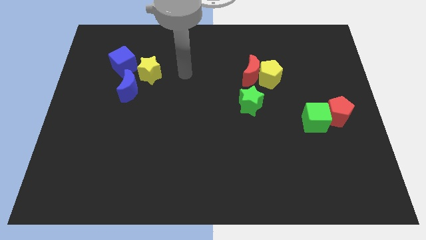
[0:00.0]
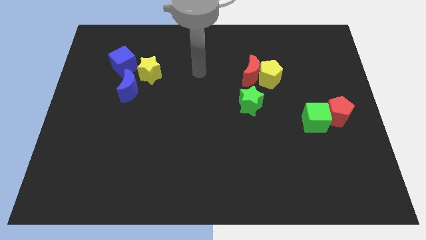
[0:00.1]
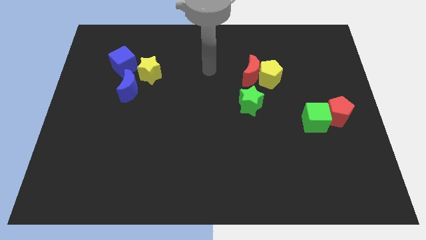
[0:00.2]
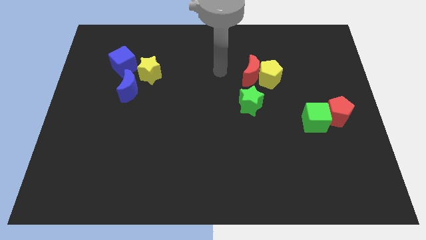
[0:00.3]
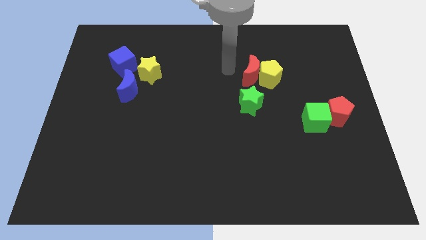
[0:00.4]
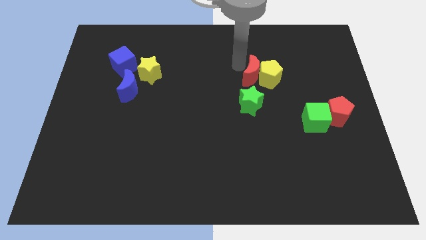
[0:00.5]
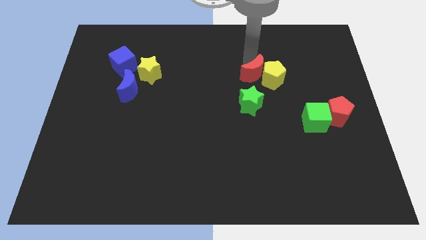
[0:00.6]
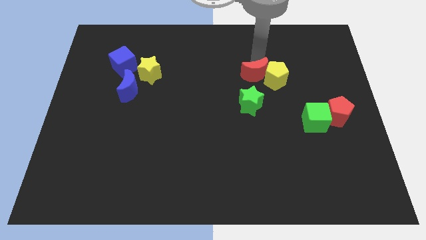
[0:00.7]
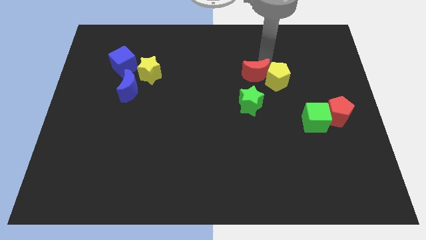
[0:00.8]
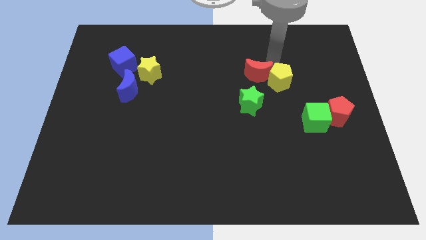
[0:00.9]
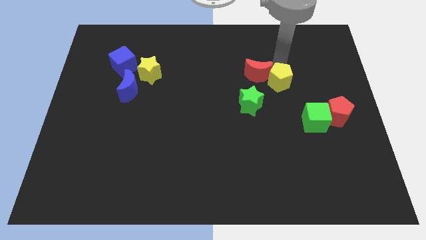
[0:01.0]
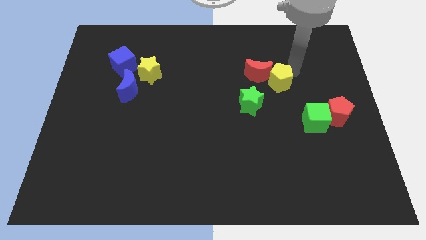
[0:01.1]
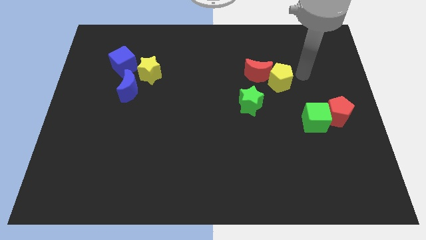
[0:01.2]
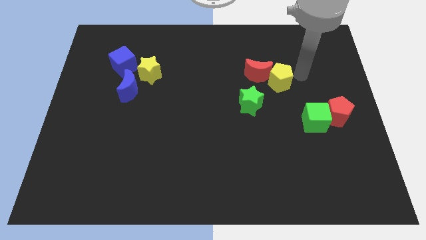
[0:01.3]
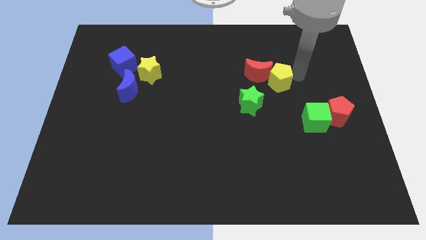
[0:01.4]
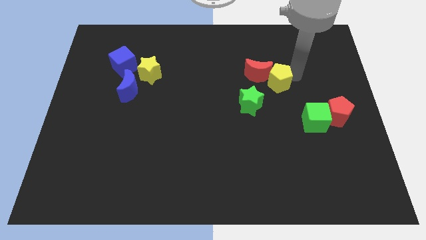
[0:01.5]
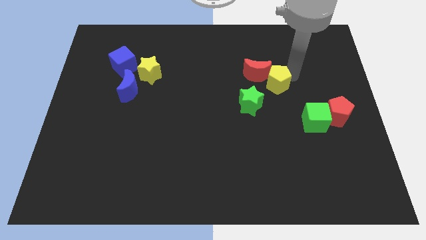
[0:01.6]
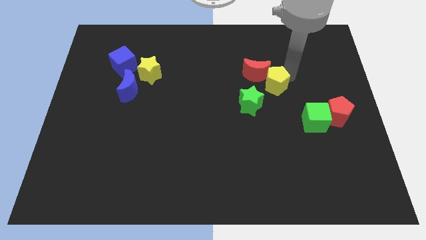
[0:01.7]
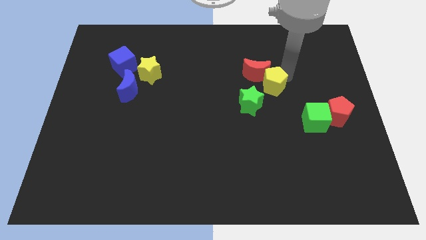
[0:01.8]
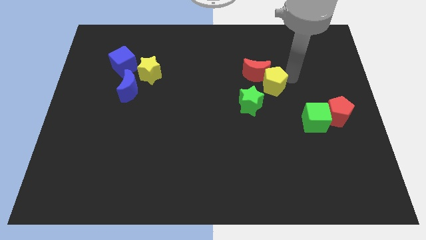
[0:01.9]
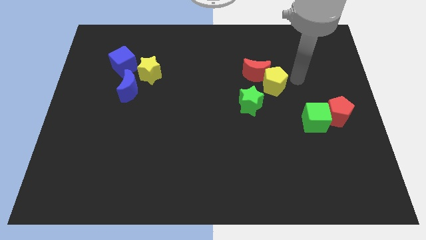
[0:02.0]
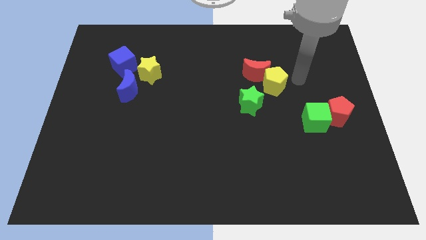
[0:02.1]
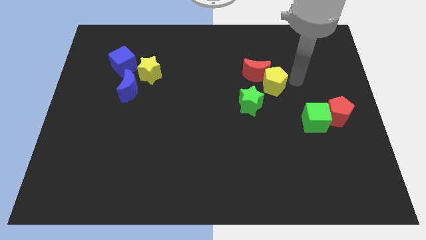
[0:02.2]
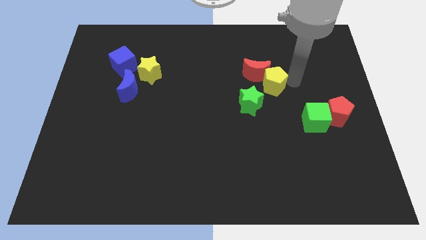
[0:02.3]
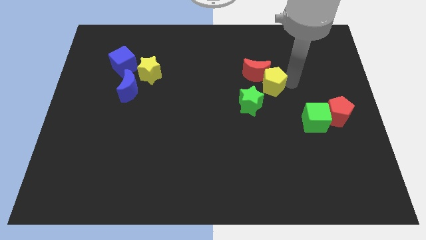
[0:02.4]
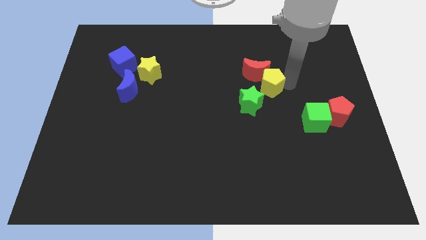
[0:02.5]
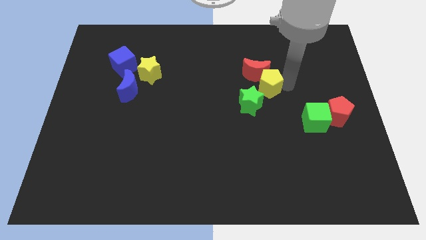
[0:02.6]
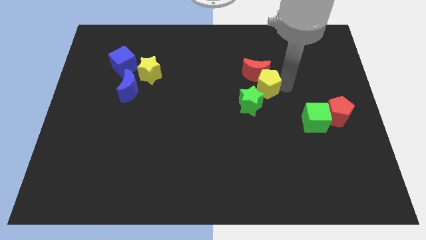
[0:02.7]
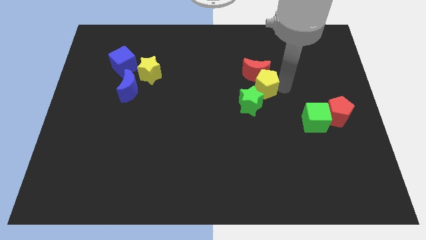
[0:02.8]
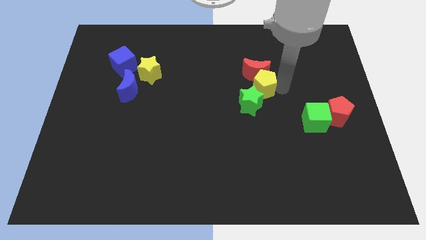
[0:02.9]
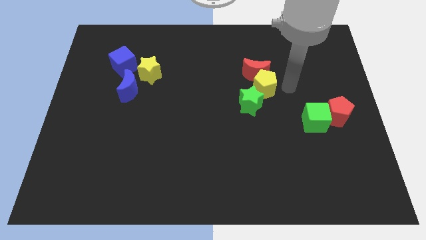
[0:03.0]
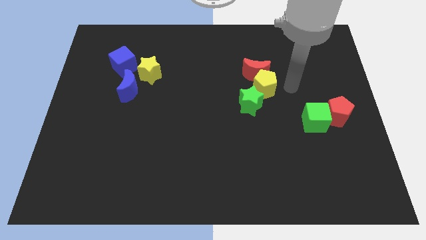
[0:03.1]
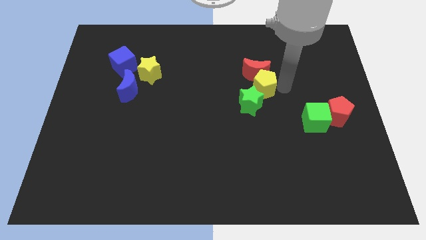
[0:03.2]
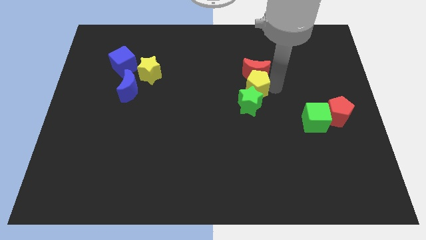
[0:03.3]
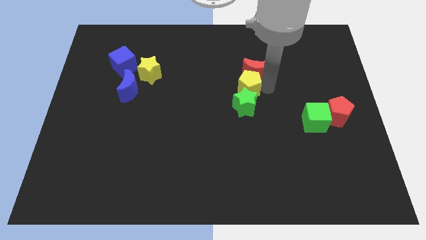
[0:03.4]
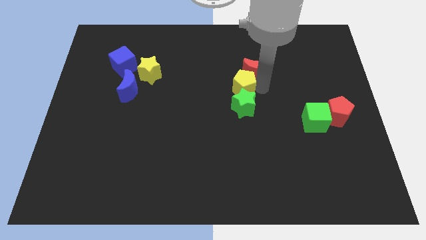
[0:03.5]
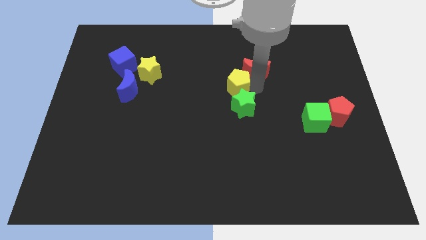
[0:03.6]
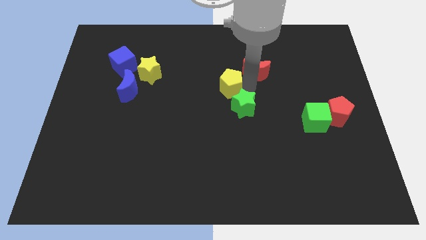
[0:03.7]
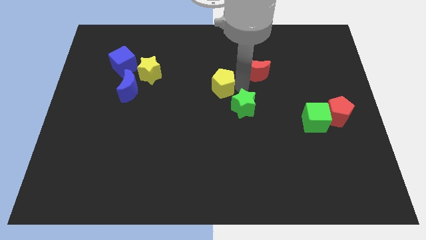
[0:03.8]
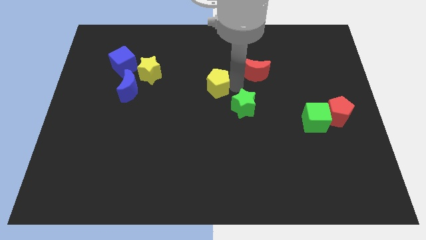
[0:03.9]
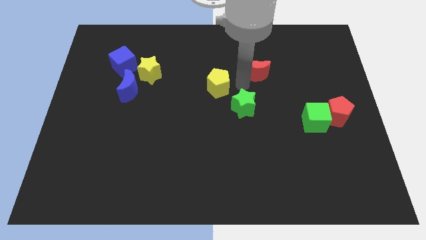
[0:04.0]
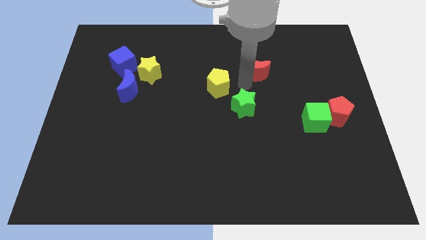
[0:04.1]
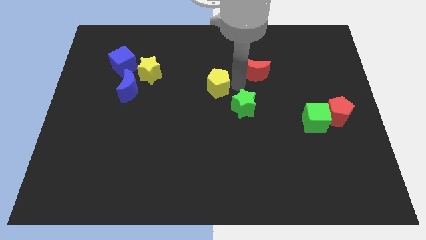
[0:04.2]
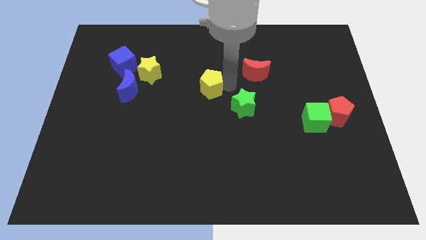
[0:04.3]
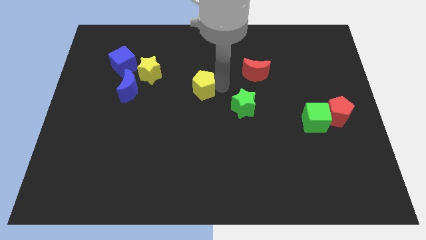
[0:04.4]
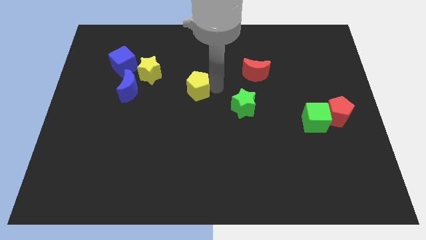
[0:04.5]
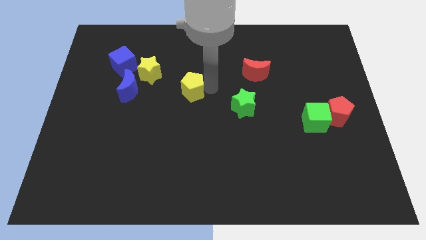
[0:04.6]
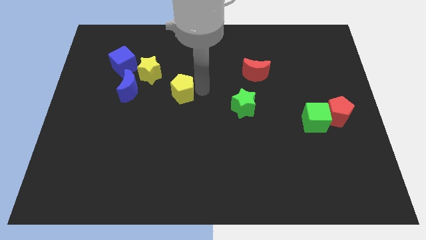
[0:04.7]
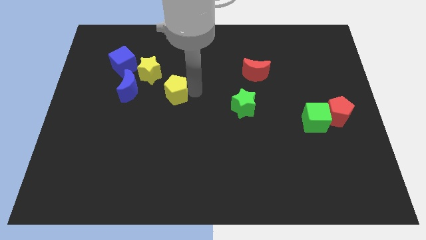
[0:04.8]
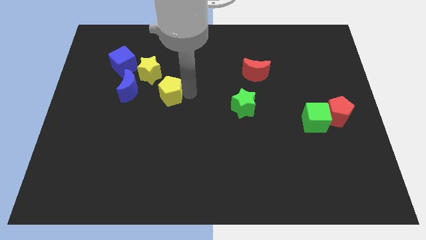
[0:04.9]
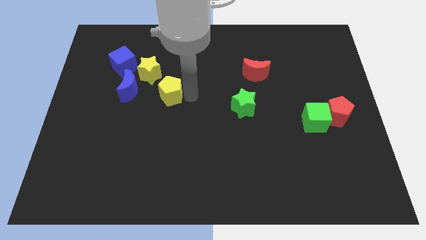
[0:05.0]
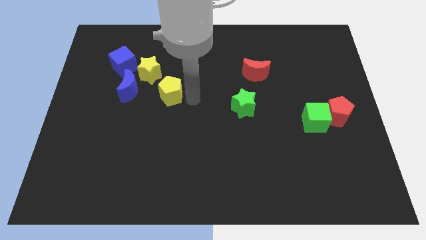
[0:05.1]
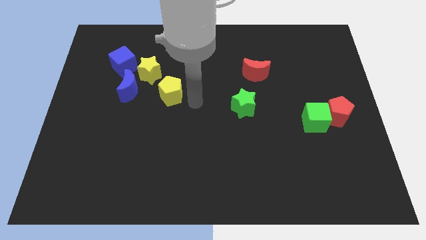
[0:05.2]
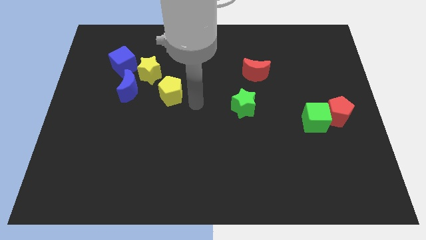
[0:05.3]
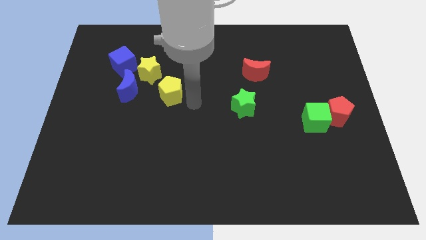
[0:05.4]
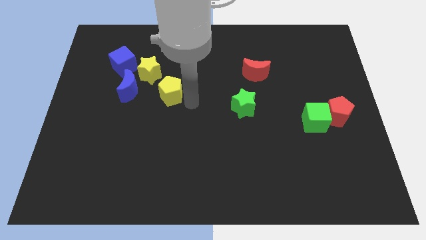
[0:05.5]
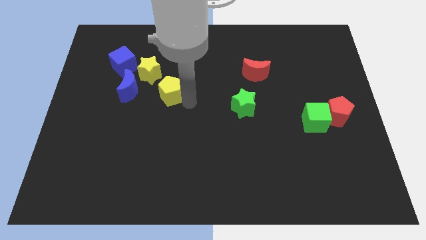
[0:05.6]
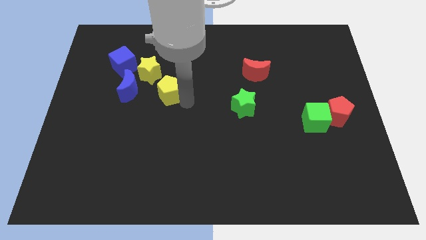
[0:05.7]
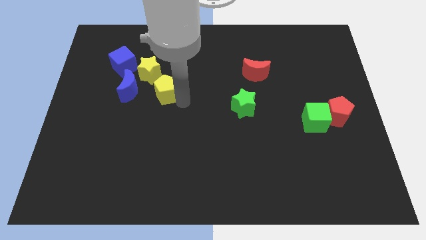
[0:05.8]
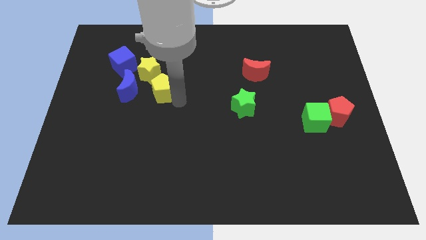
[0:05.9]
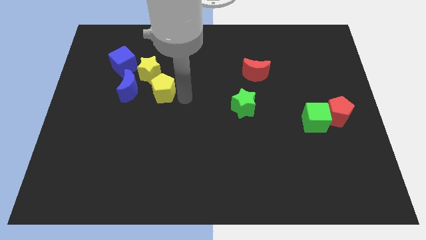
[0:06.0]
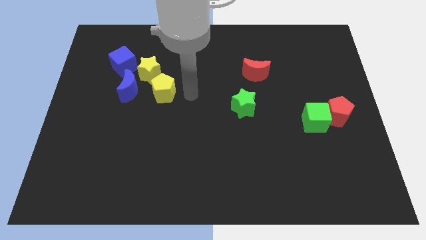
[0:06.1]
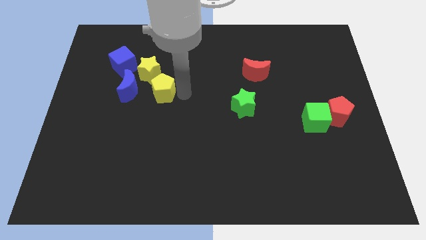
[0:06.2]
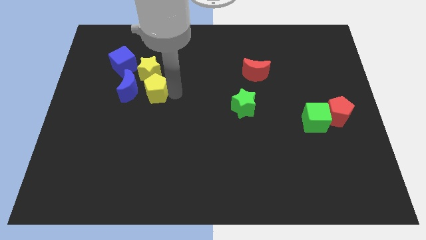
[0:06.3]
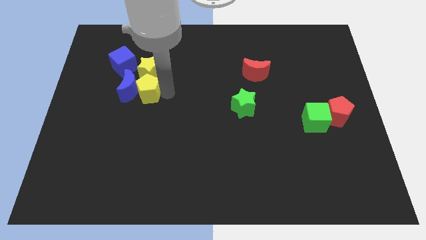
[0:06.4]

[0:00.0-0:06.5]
move the yellow pentagon to the blue moon

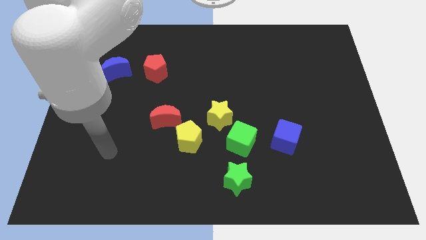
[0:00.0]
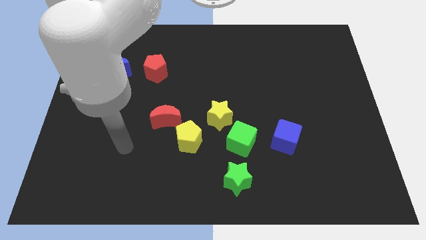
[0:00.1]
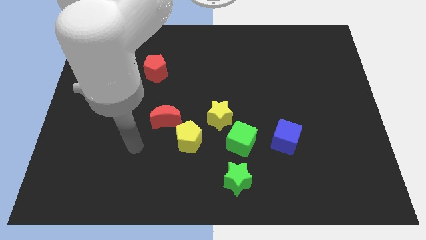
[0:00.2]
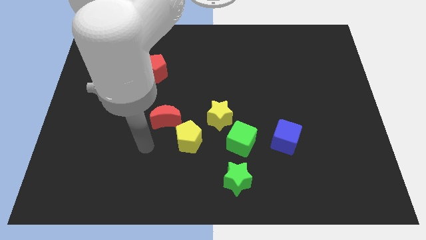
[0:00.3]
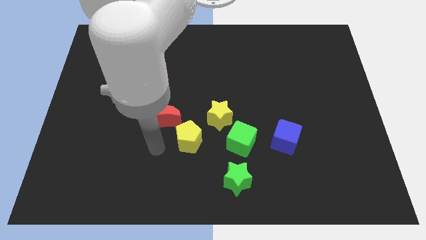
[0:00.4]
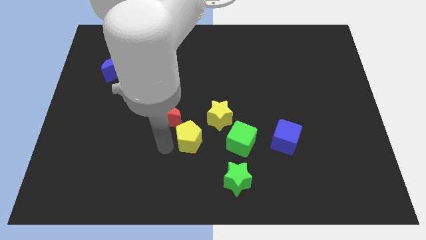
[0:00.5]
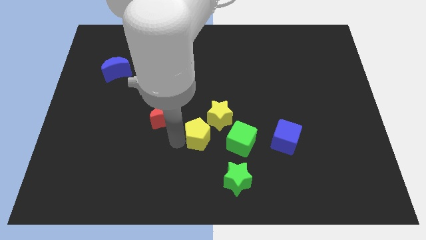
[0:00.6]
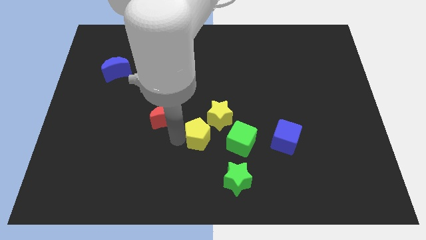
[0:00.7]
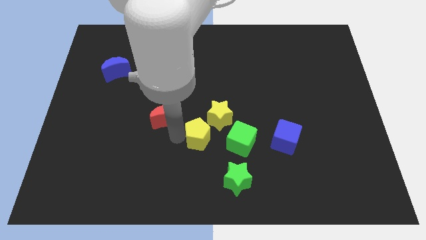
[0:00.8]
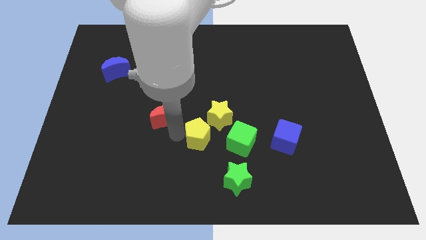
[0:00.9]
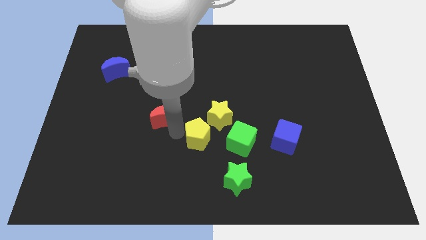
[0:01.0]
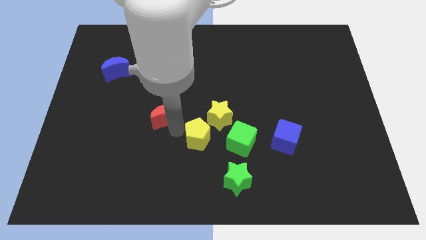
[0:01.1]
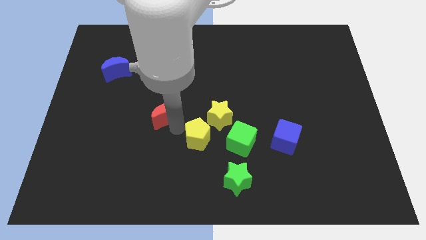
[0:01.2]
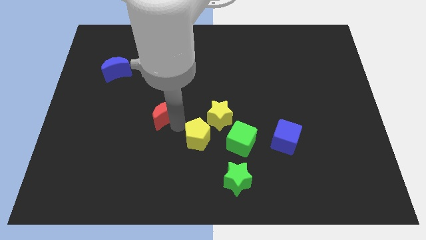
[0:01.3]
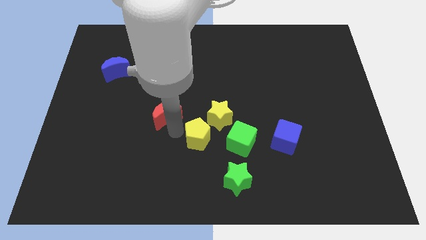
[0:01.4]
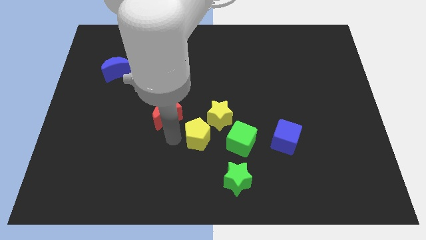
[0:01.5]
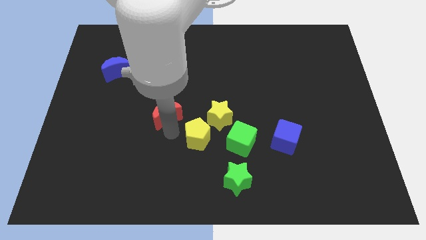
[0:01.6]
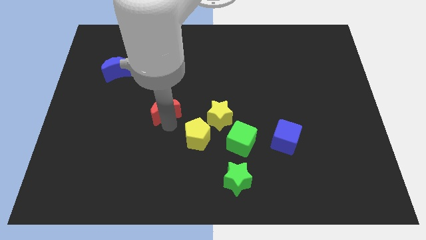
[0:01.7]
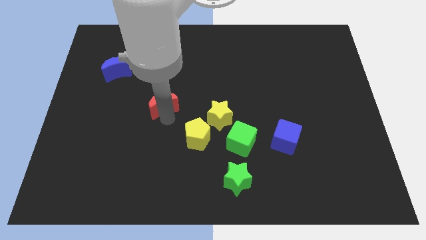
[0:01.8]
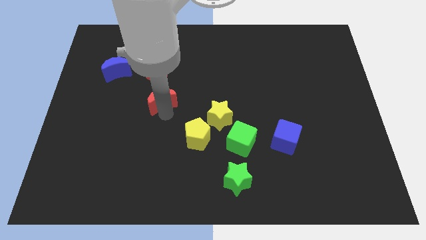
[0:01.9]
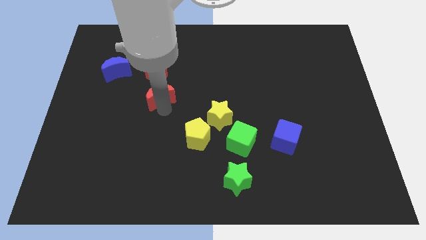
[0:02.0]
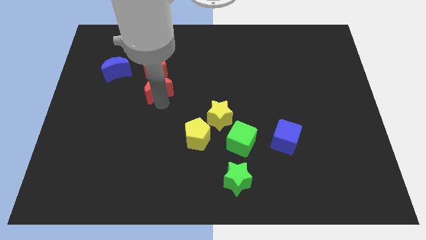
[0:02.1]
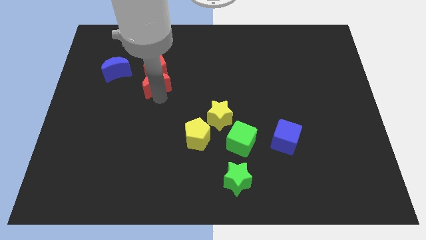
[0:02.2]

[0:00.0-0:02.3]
move the red moon close to the red pentagon
